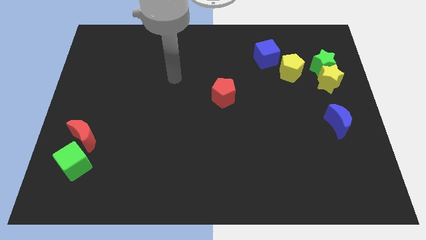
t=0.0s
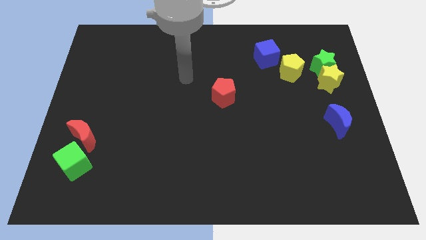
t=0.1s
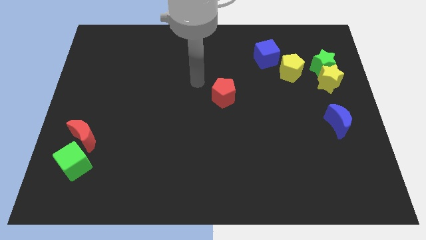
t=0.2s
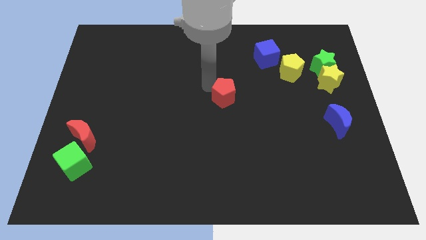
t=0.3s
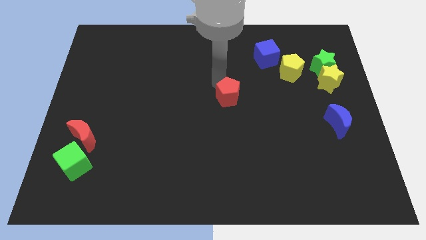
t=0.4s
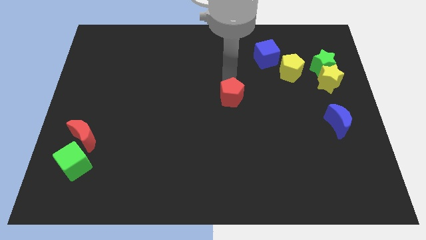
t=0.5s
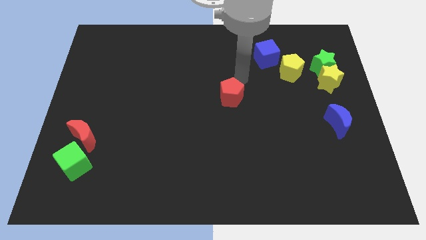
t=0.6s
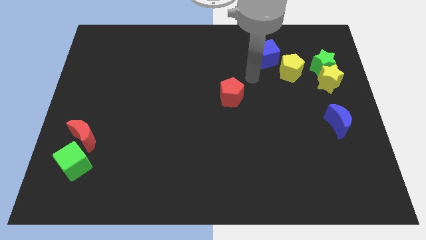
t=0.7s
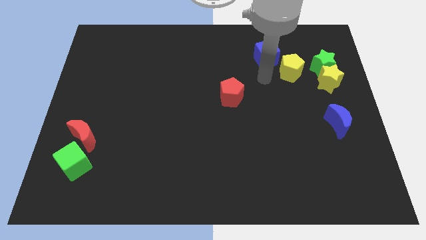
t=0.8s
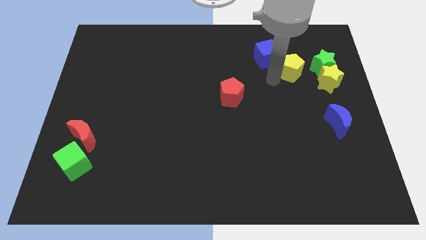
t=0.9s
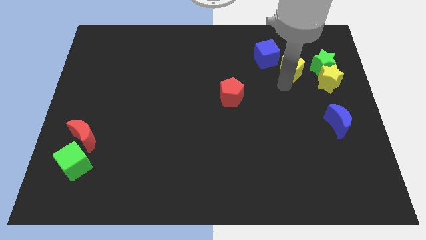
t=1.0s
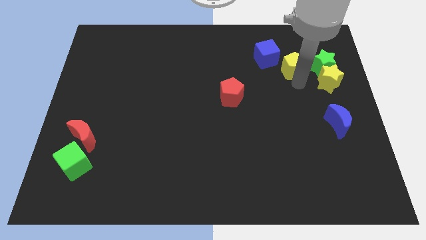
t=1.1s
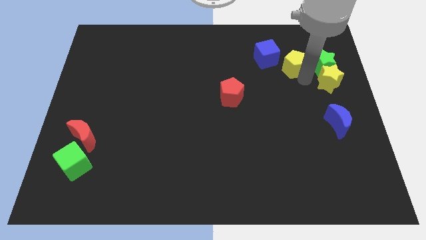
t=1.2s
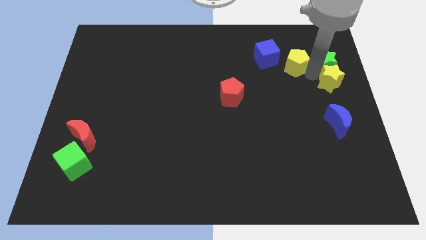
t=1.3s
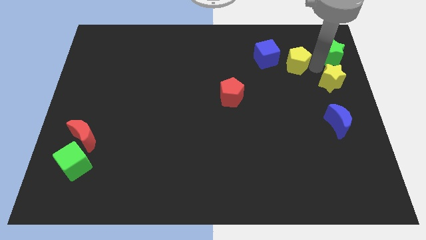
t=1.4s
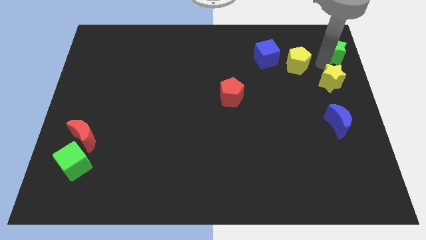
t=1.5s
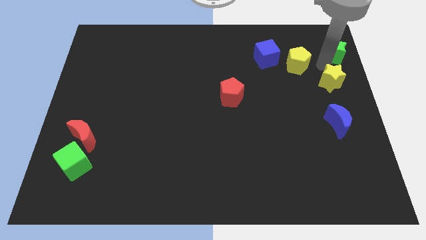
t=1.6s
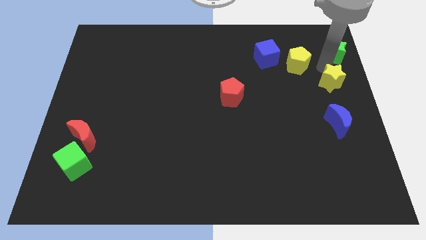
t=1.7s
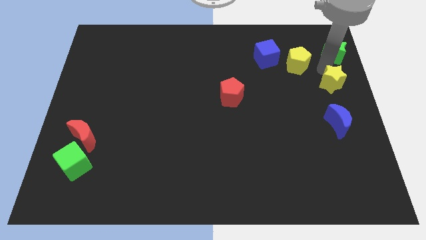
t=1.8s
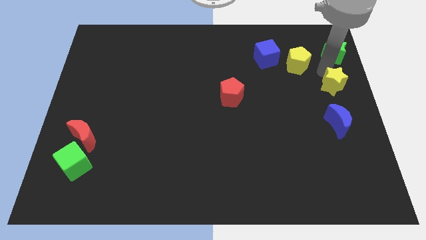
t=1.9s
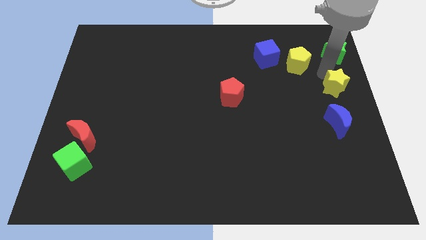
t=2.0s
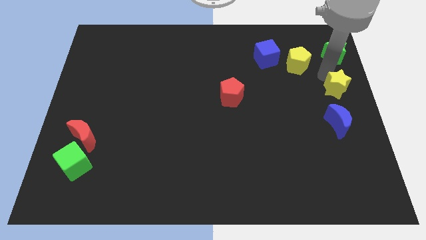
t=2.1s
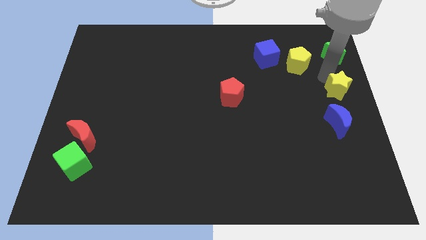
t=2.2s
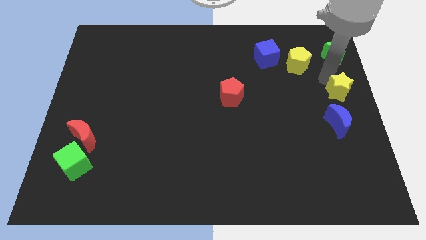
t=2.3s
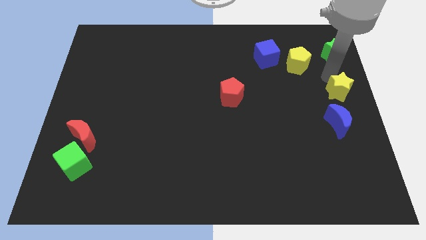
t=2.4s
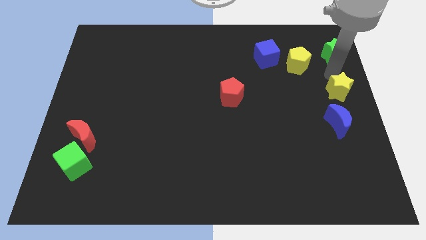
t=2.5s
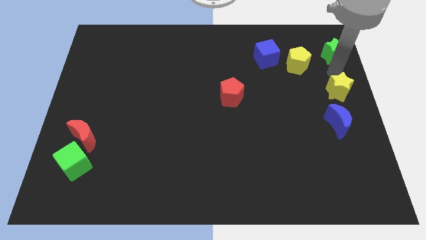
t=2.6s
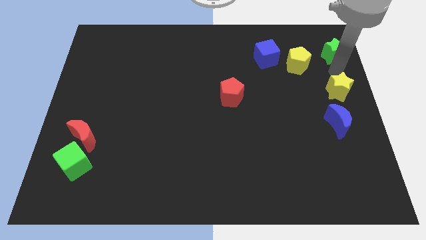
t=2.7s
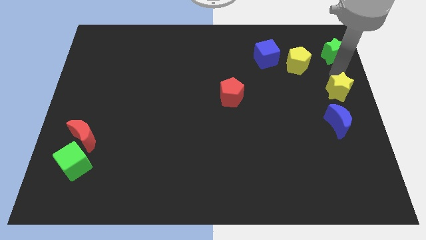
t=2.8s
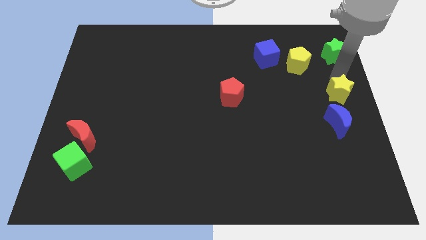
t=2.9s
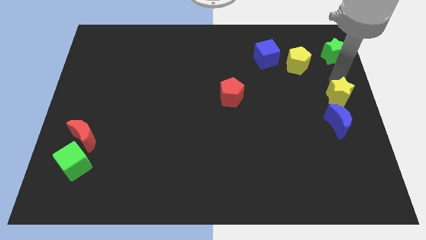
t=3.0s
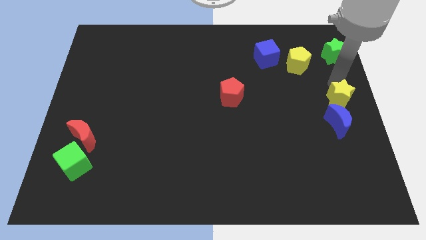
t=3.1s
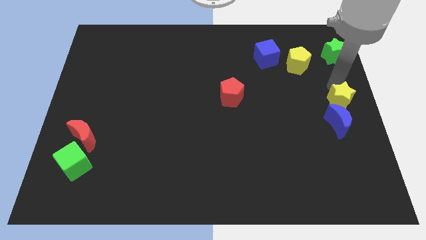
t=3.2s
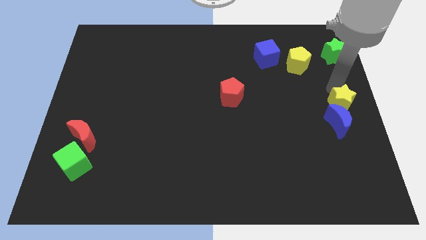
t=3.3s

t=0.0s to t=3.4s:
slide the yellow star a little bit down

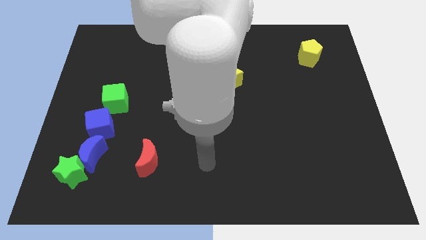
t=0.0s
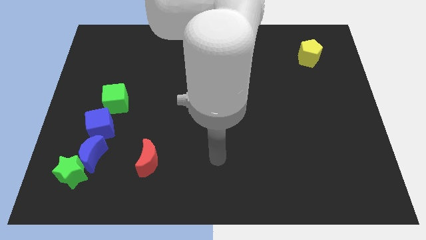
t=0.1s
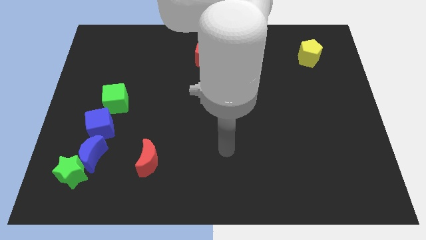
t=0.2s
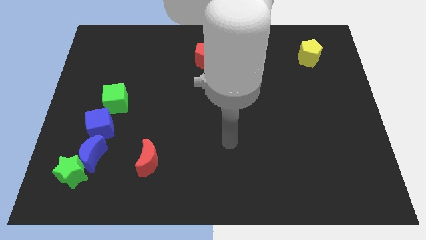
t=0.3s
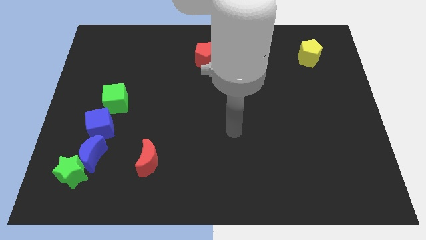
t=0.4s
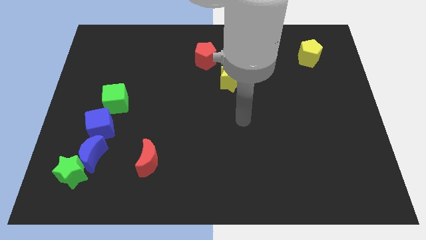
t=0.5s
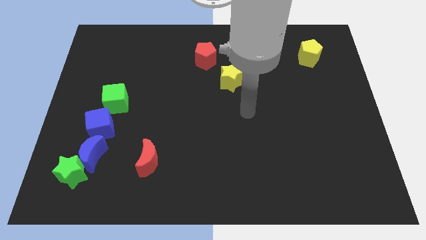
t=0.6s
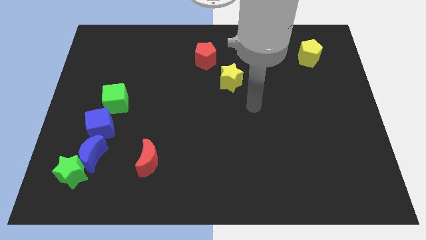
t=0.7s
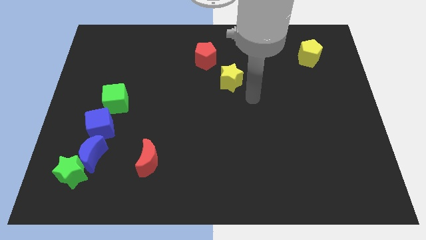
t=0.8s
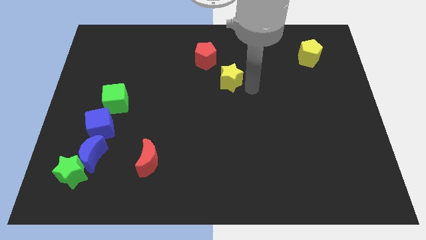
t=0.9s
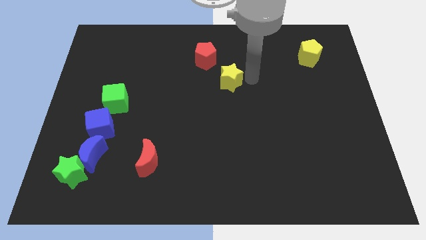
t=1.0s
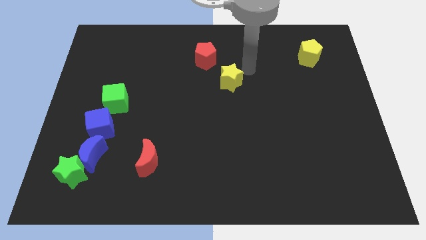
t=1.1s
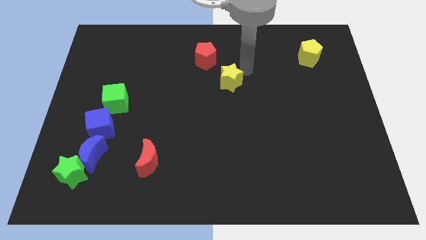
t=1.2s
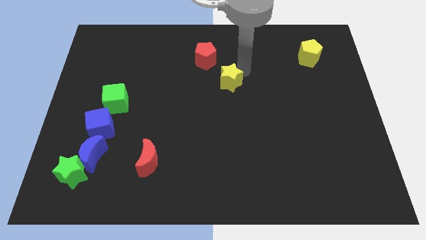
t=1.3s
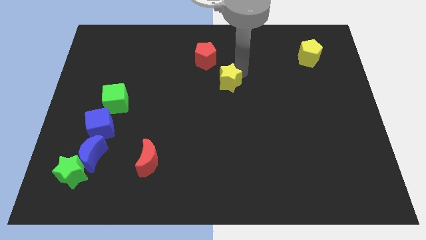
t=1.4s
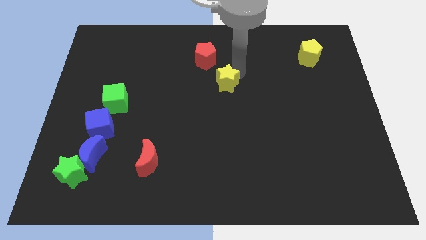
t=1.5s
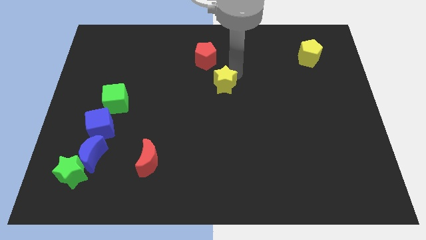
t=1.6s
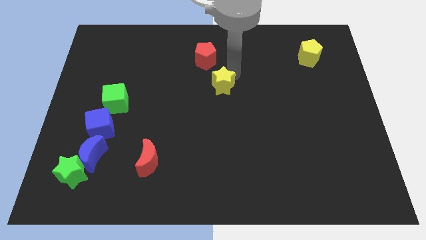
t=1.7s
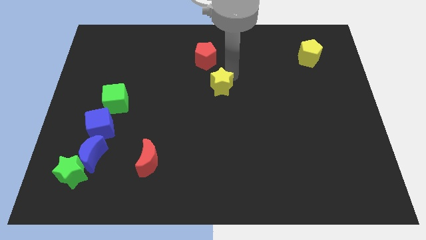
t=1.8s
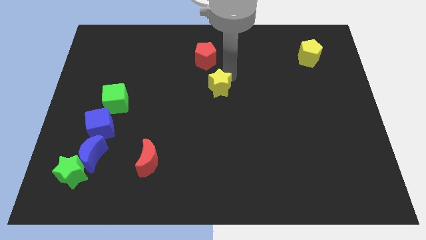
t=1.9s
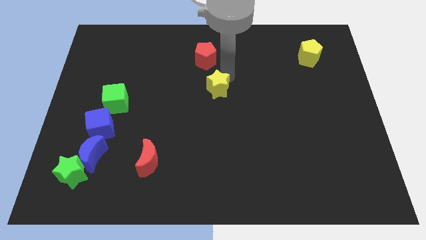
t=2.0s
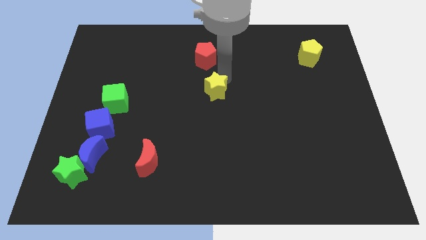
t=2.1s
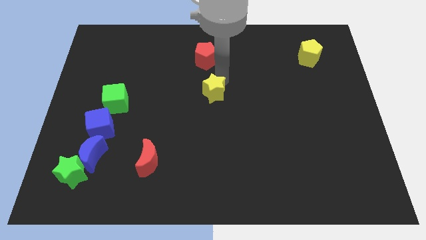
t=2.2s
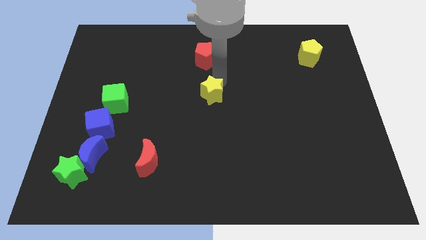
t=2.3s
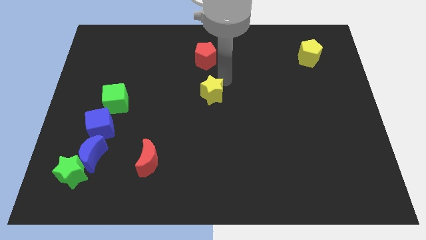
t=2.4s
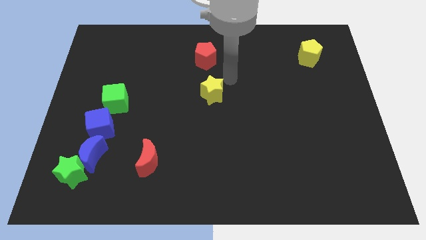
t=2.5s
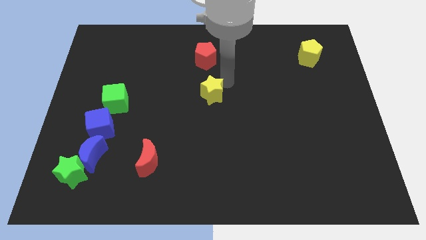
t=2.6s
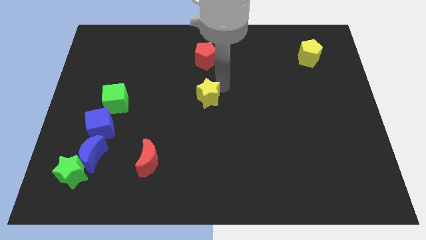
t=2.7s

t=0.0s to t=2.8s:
move the yellow star diagonally downwards and left somewhat

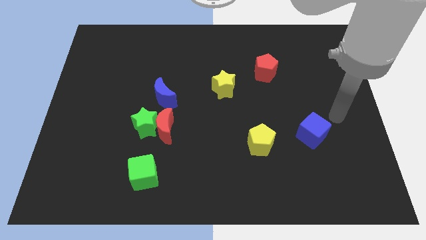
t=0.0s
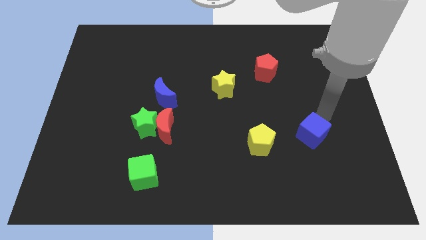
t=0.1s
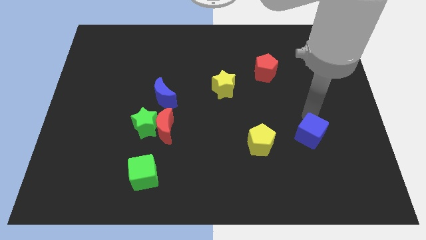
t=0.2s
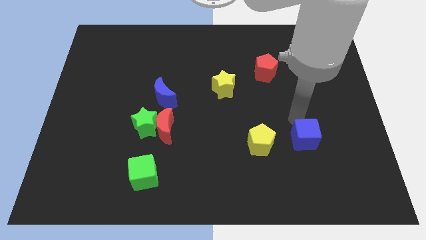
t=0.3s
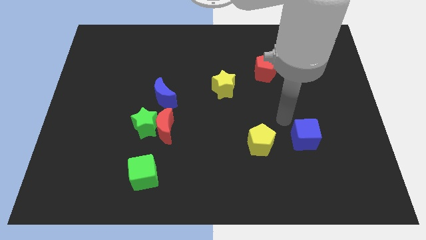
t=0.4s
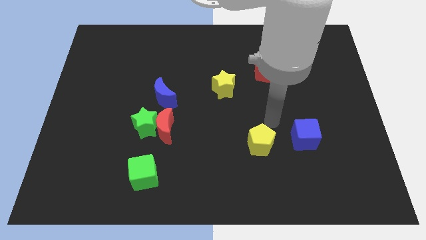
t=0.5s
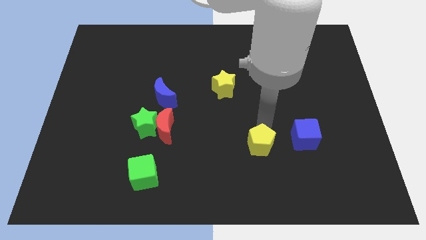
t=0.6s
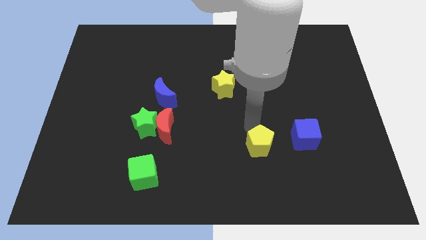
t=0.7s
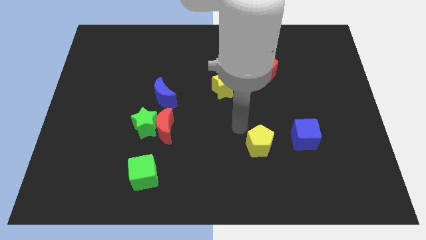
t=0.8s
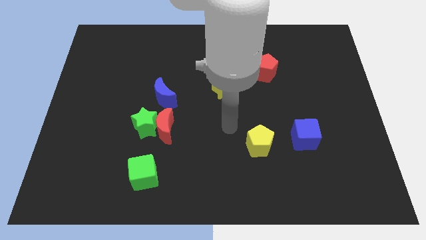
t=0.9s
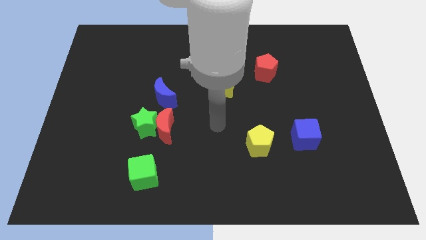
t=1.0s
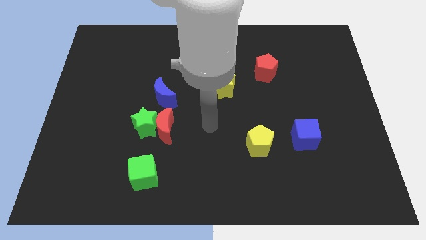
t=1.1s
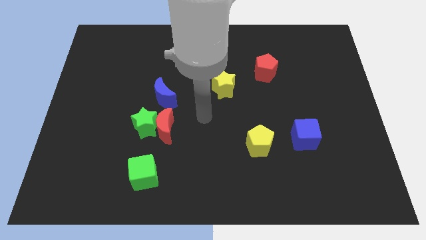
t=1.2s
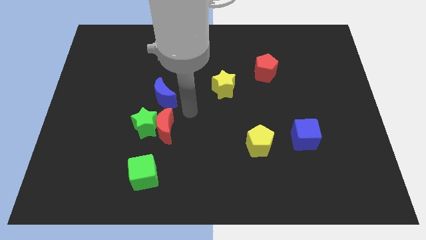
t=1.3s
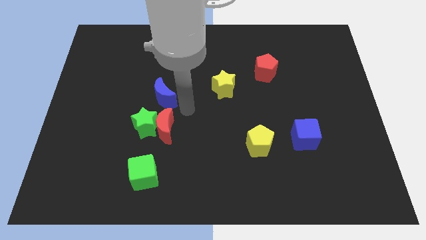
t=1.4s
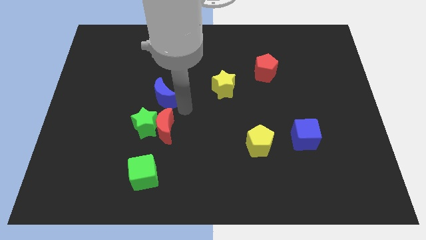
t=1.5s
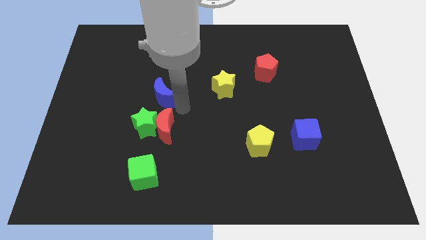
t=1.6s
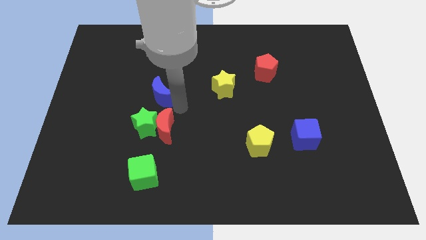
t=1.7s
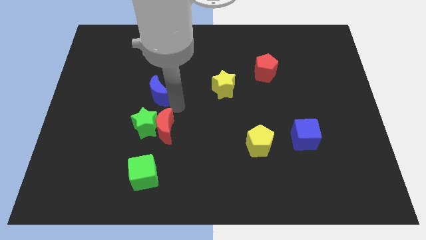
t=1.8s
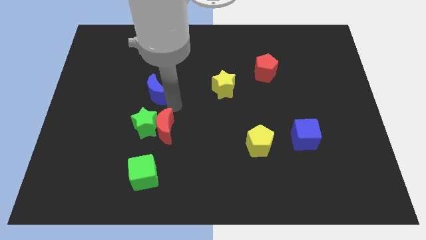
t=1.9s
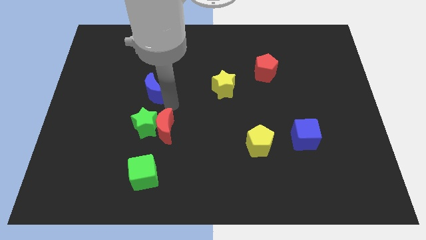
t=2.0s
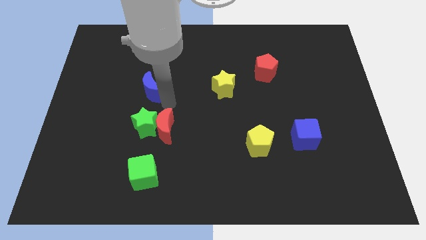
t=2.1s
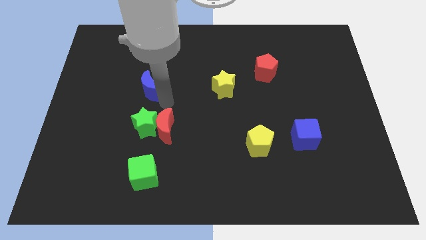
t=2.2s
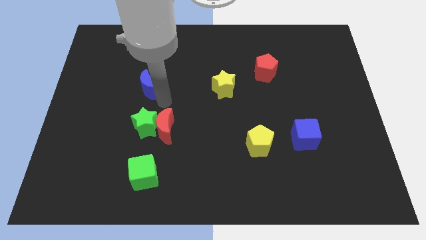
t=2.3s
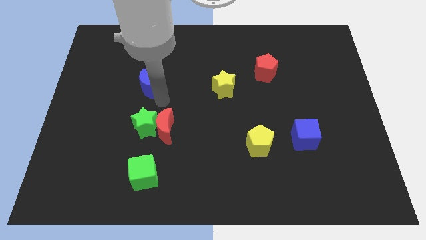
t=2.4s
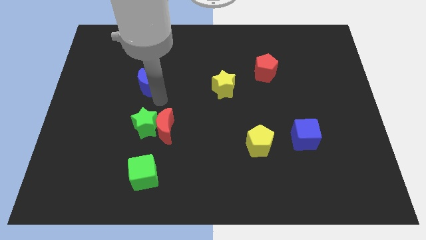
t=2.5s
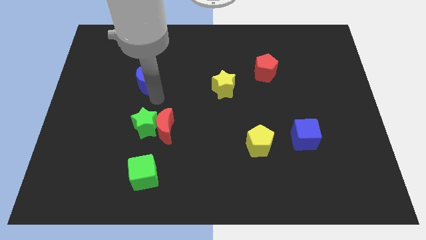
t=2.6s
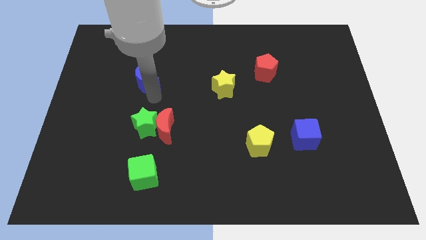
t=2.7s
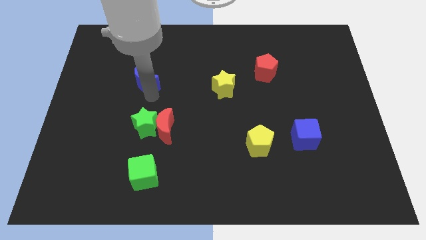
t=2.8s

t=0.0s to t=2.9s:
push the blue moon a bit upwards and to the left diagonally
